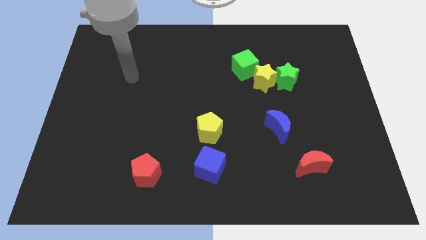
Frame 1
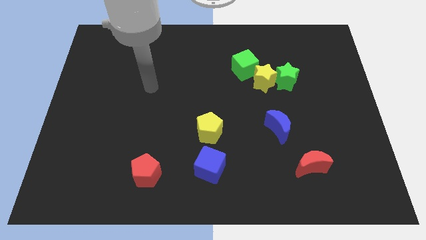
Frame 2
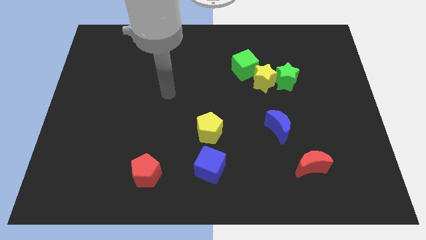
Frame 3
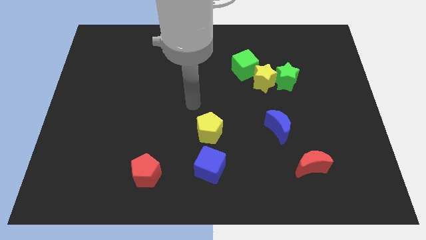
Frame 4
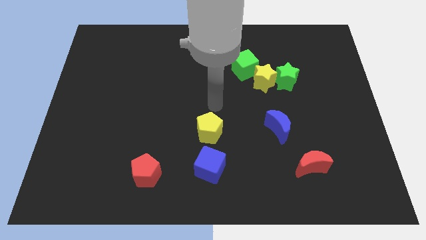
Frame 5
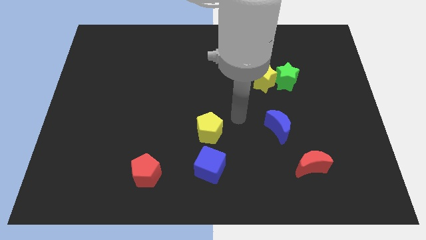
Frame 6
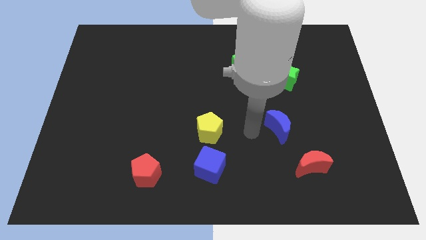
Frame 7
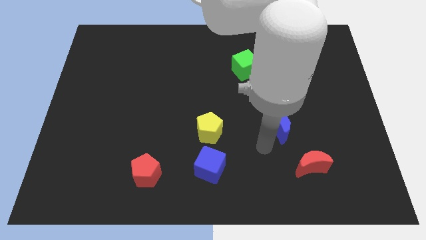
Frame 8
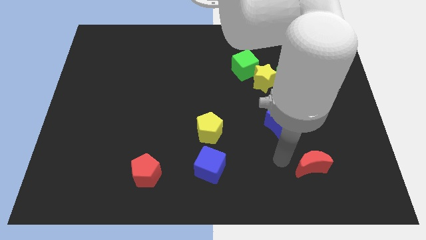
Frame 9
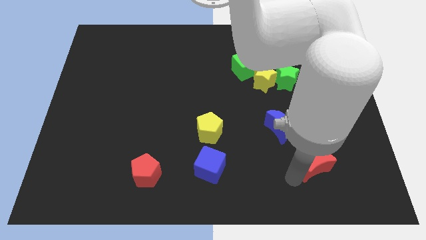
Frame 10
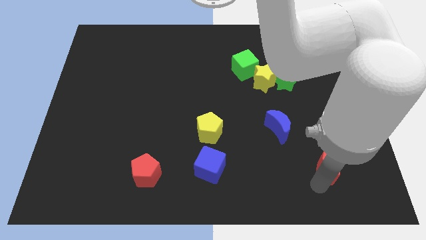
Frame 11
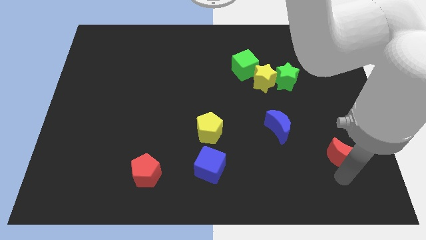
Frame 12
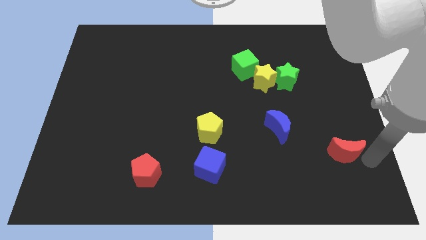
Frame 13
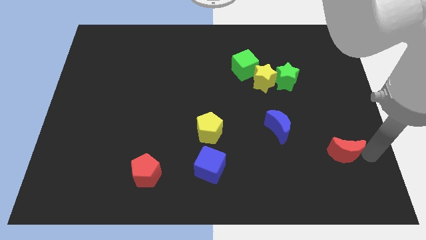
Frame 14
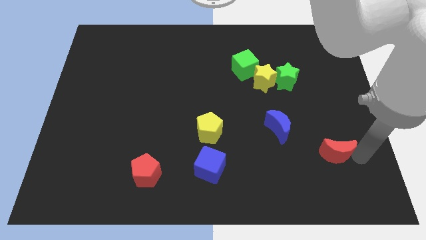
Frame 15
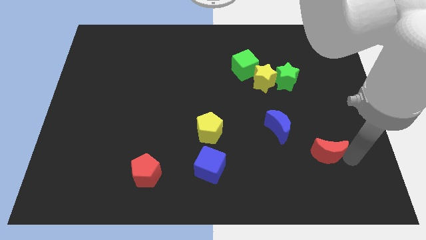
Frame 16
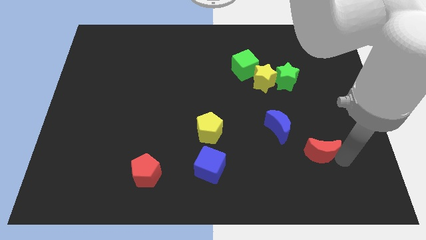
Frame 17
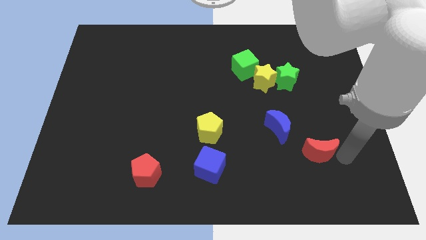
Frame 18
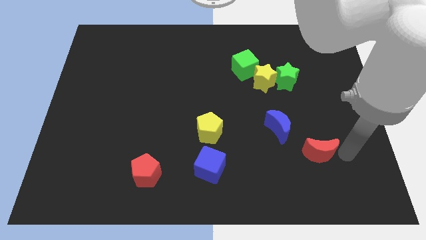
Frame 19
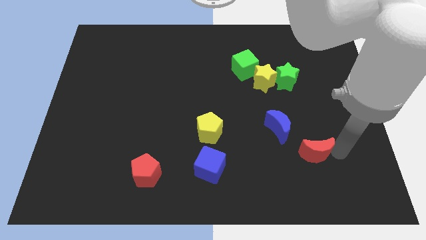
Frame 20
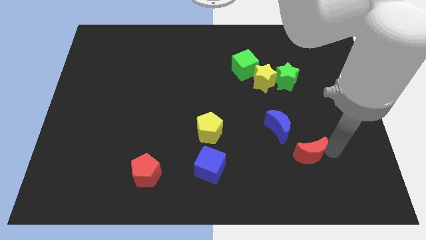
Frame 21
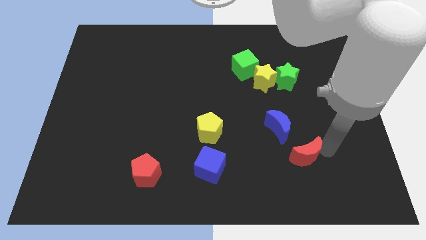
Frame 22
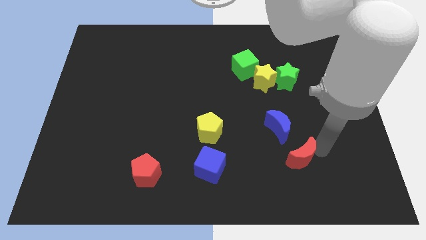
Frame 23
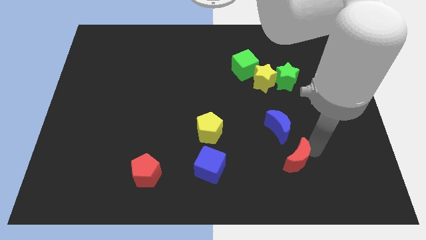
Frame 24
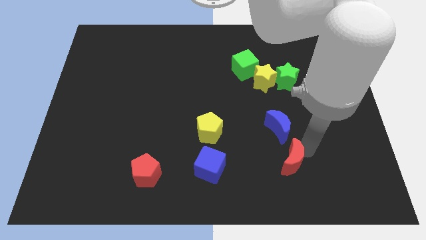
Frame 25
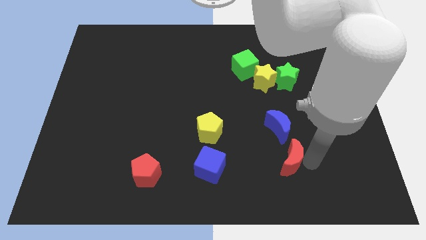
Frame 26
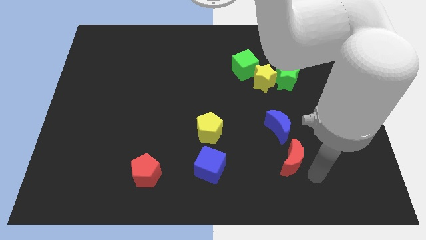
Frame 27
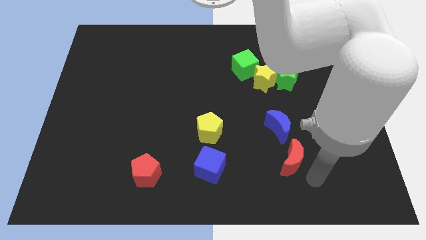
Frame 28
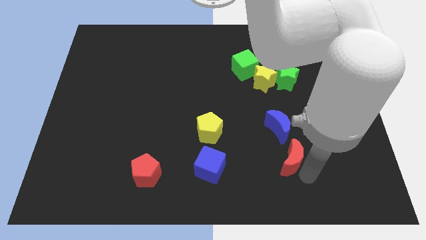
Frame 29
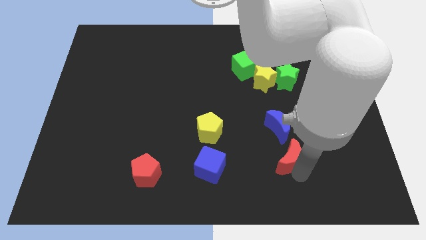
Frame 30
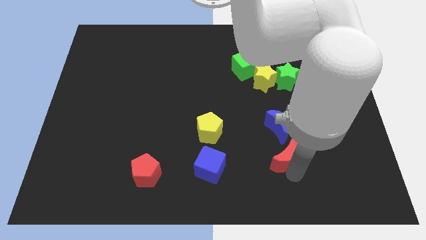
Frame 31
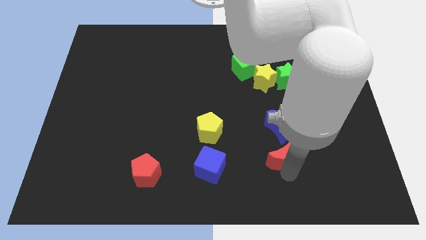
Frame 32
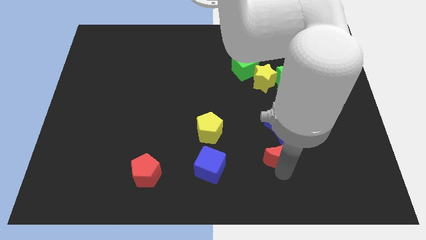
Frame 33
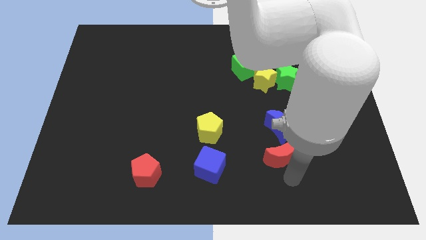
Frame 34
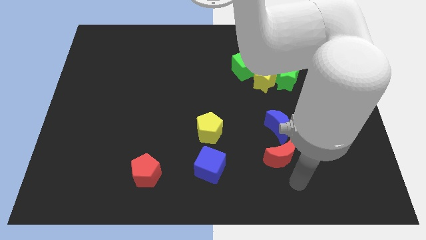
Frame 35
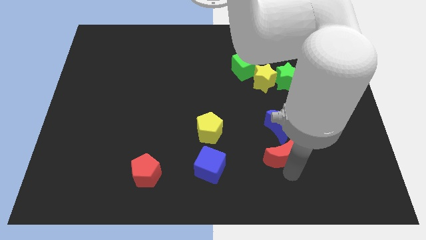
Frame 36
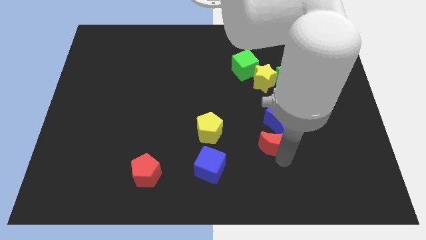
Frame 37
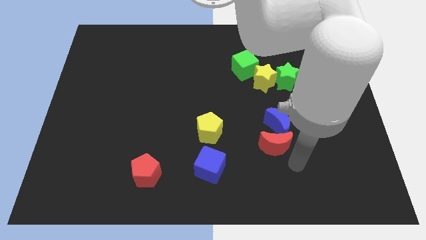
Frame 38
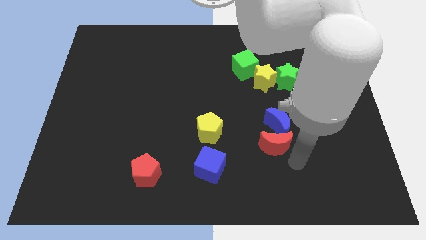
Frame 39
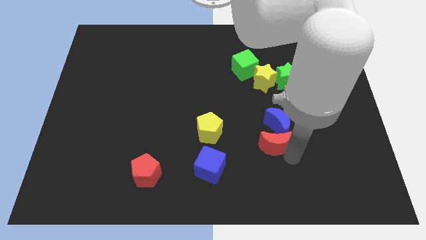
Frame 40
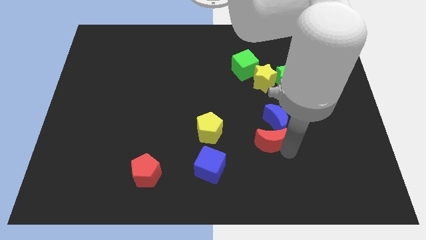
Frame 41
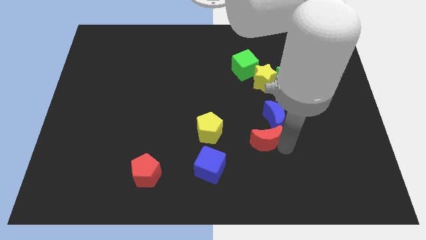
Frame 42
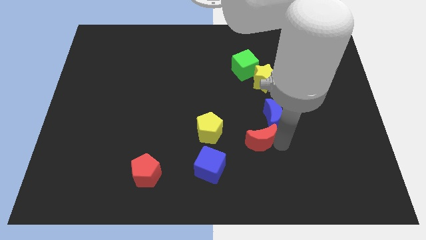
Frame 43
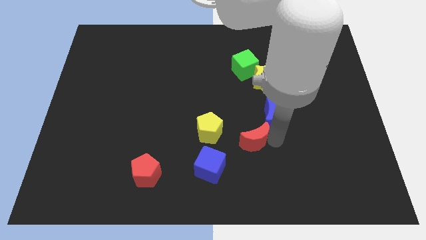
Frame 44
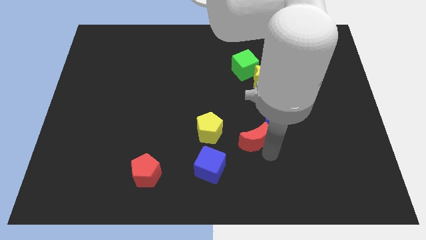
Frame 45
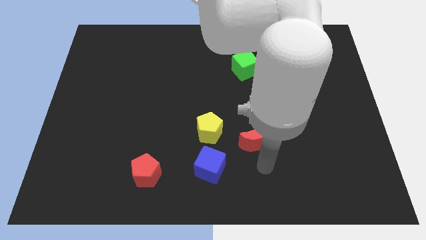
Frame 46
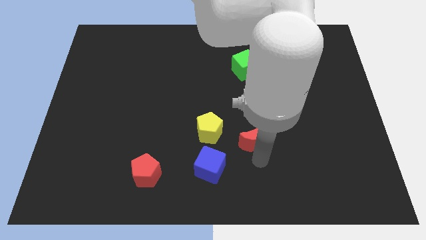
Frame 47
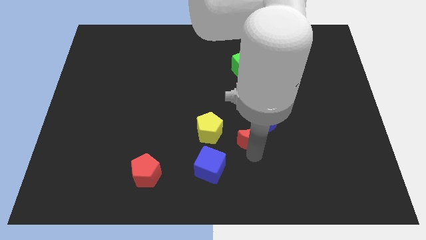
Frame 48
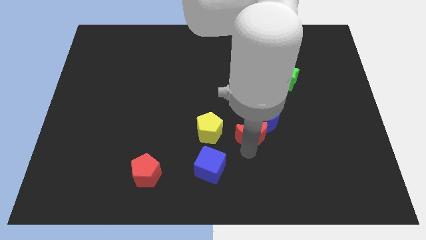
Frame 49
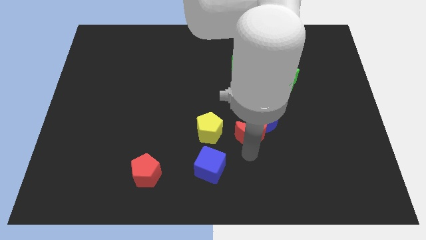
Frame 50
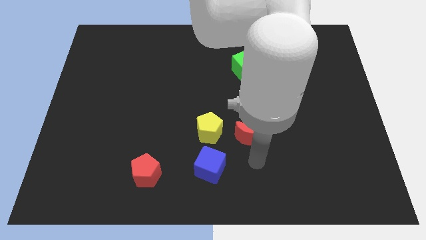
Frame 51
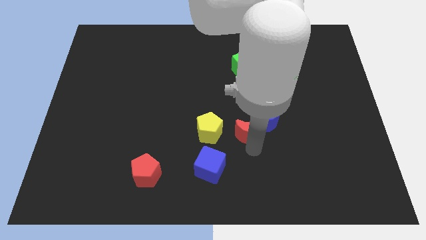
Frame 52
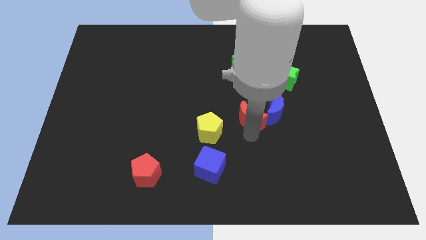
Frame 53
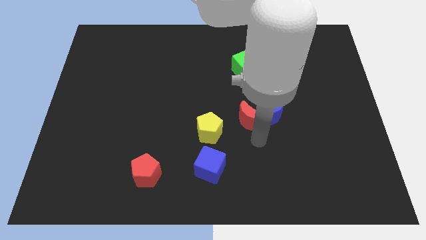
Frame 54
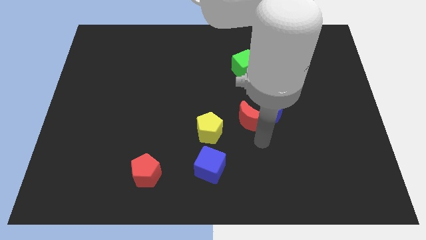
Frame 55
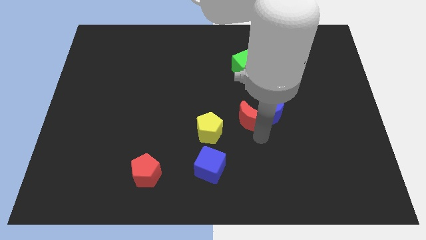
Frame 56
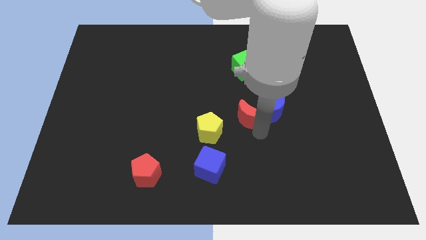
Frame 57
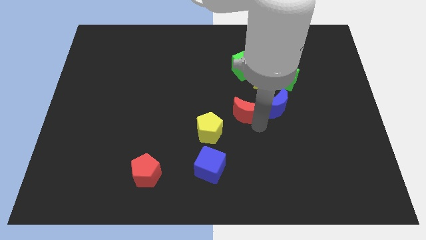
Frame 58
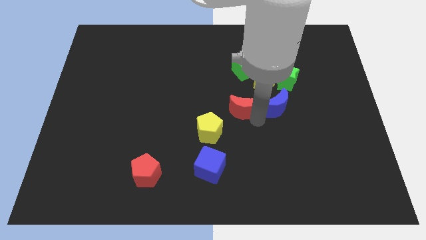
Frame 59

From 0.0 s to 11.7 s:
move the red moon upwards and to the left diagonally

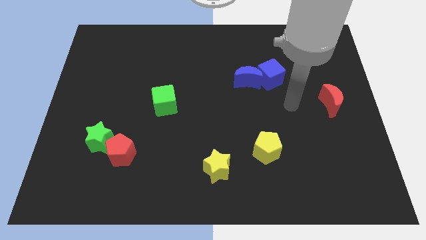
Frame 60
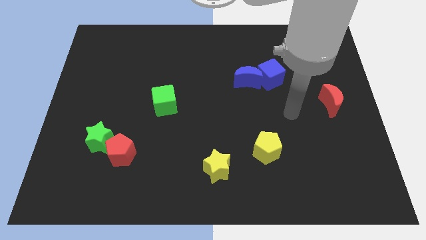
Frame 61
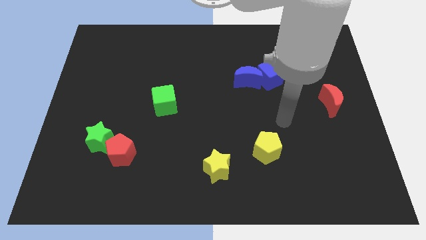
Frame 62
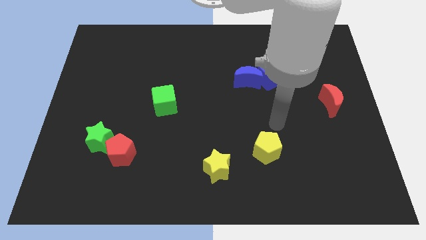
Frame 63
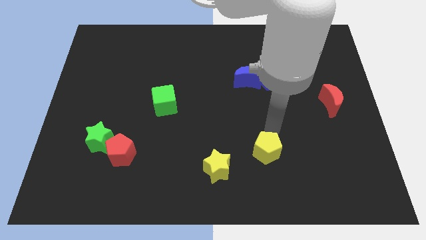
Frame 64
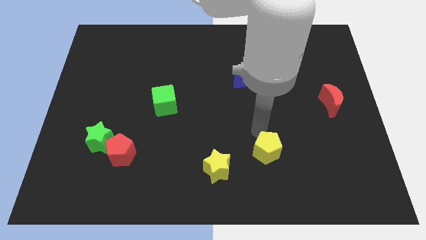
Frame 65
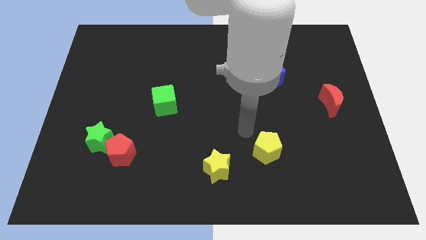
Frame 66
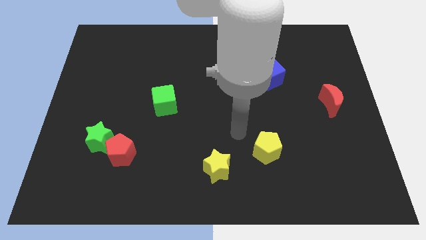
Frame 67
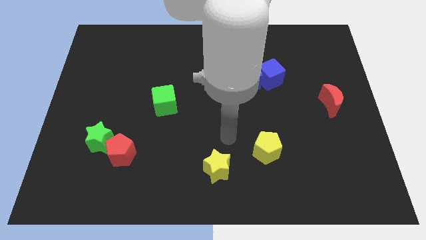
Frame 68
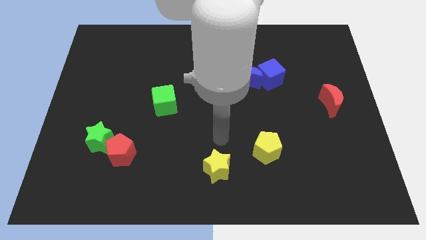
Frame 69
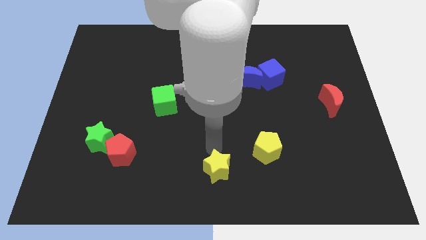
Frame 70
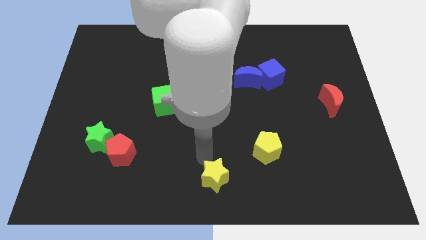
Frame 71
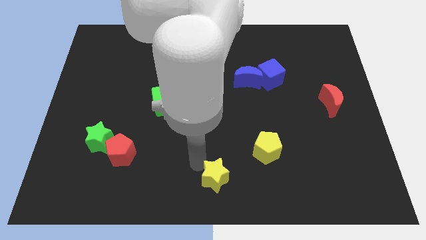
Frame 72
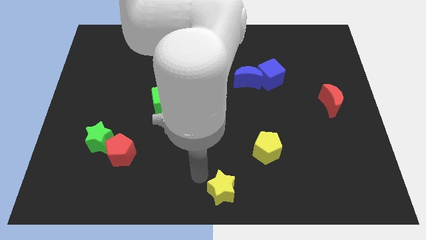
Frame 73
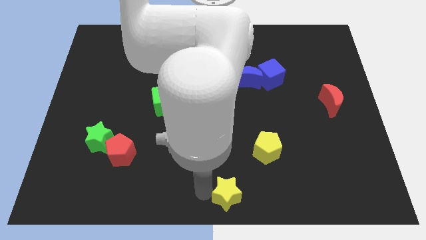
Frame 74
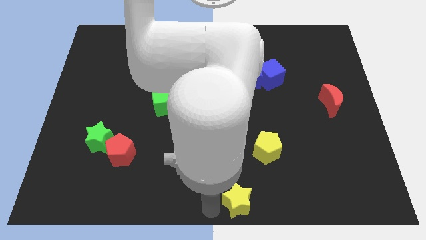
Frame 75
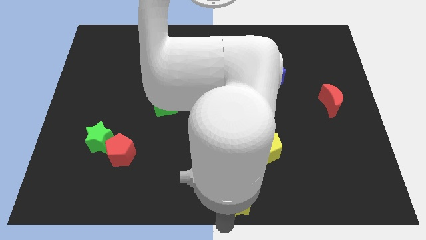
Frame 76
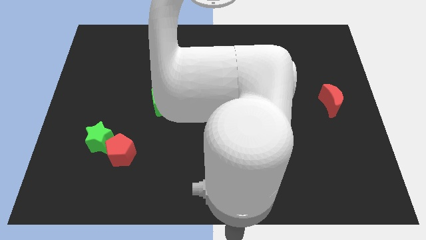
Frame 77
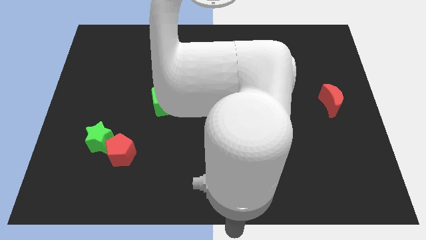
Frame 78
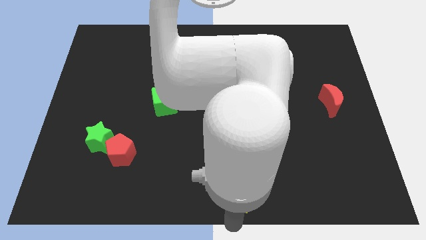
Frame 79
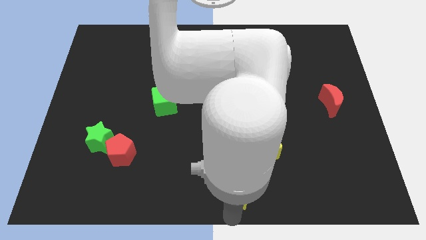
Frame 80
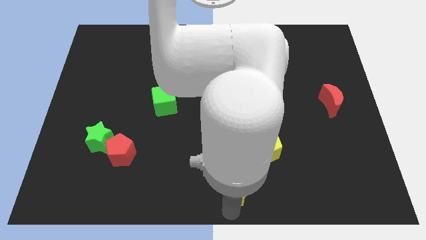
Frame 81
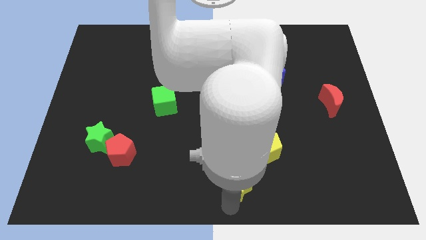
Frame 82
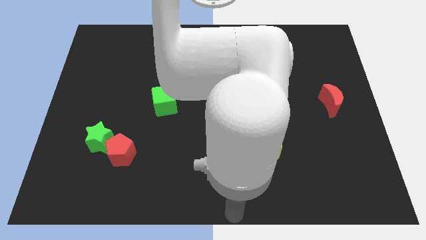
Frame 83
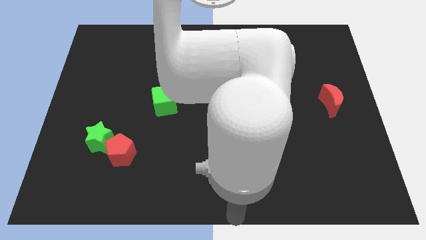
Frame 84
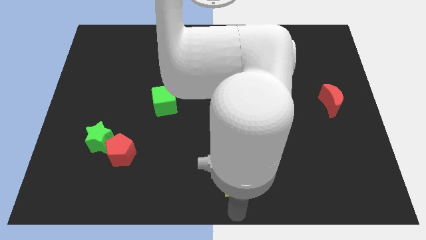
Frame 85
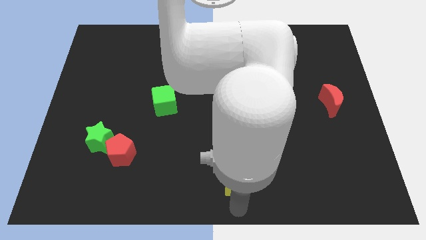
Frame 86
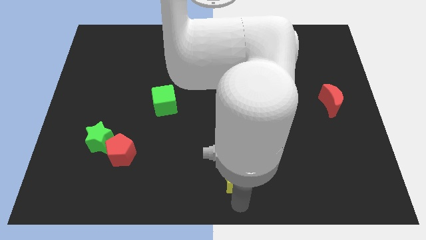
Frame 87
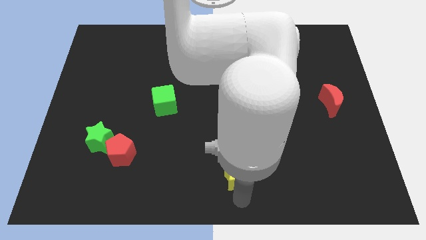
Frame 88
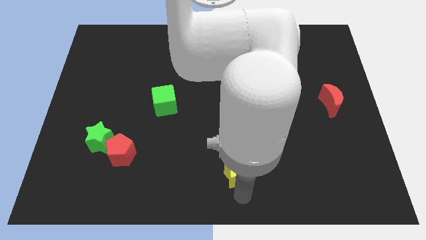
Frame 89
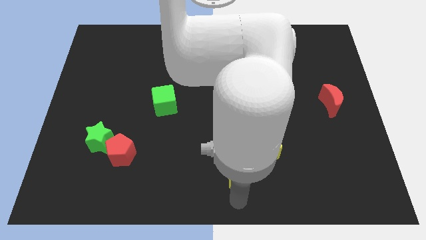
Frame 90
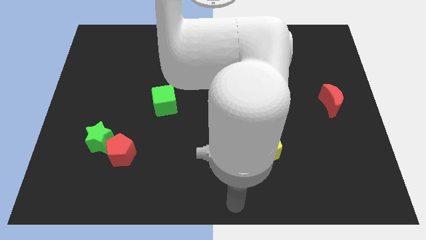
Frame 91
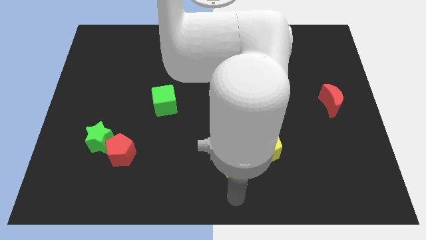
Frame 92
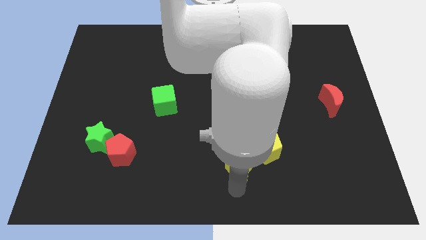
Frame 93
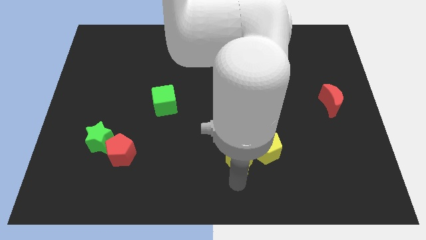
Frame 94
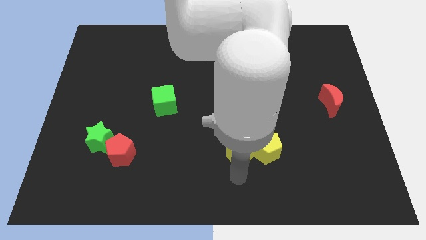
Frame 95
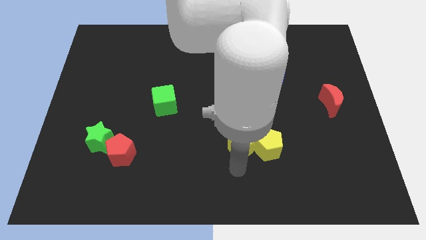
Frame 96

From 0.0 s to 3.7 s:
slide the yellow star a little diagonally up and to the right
